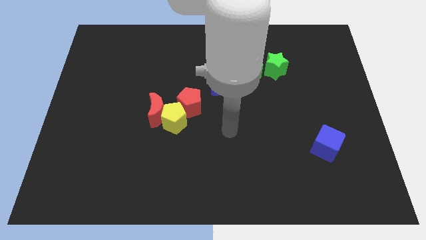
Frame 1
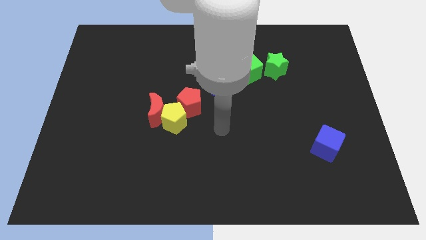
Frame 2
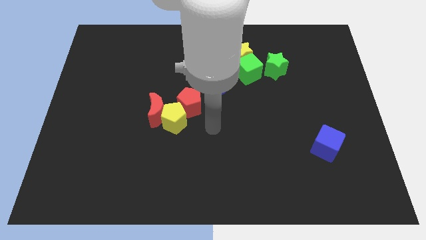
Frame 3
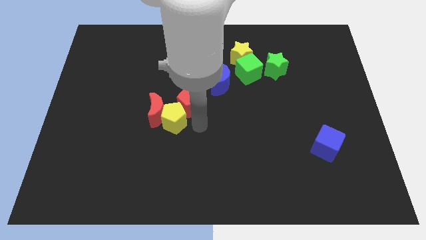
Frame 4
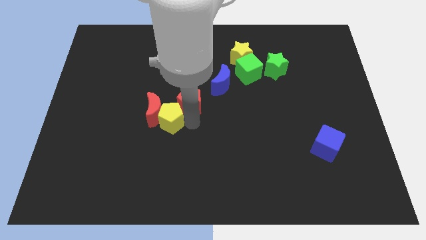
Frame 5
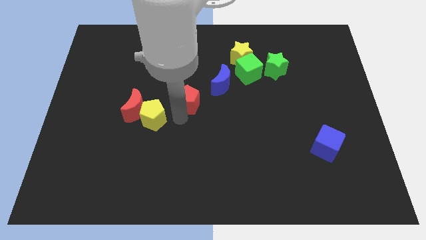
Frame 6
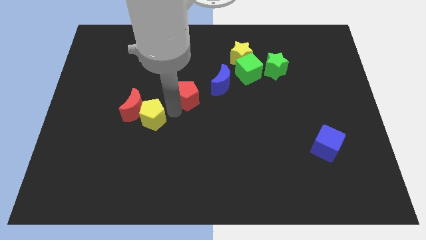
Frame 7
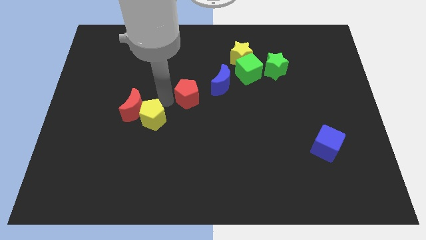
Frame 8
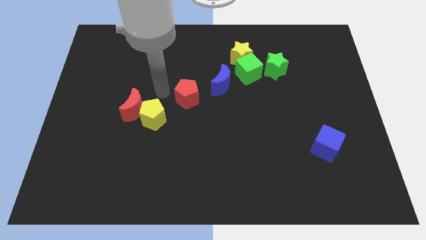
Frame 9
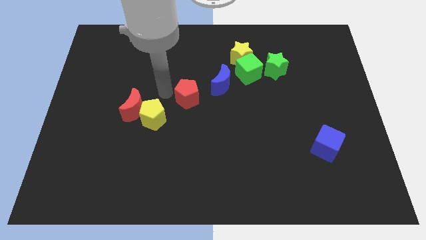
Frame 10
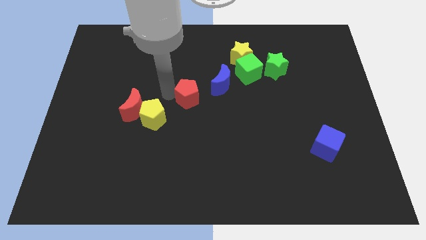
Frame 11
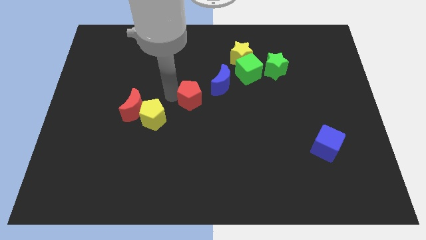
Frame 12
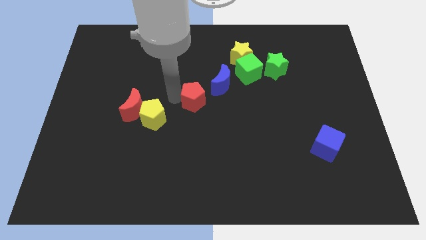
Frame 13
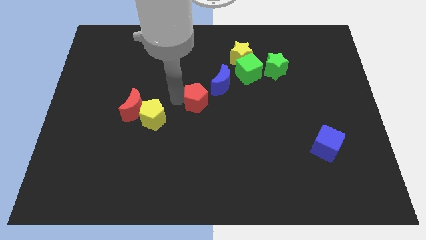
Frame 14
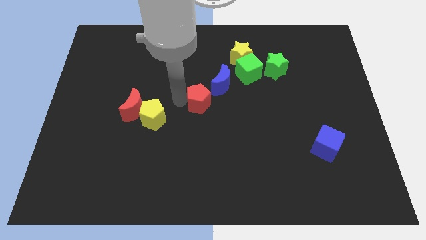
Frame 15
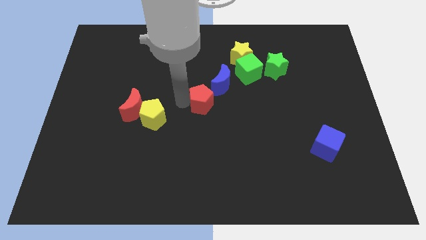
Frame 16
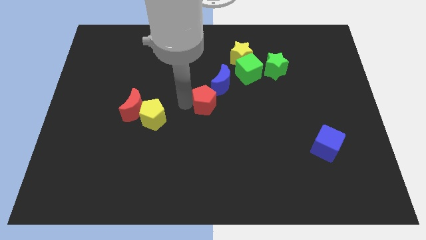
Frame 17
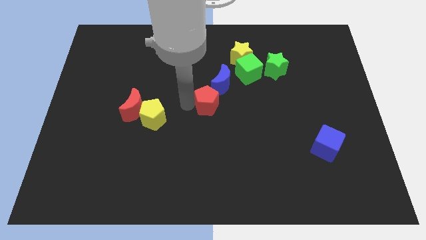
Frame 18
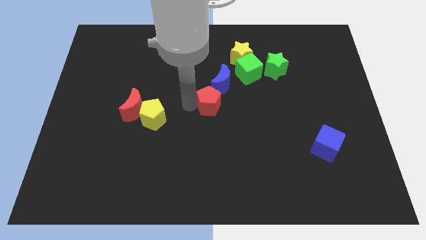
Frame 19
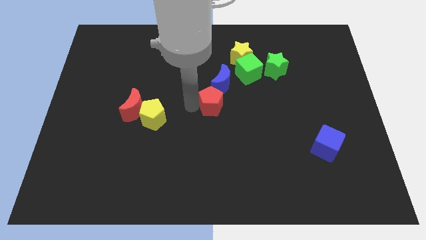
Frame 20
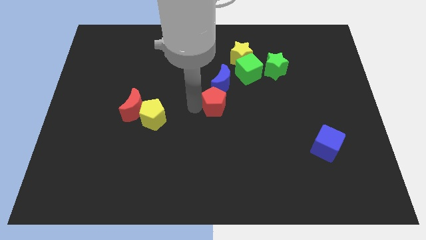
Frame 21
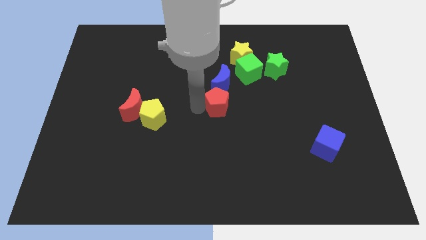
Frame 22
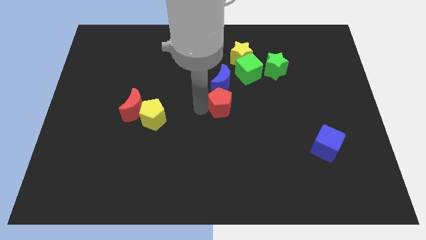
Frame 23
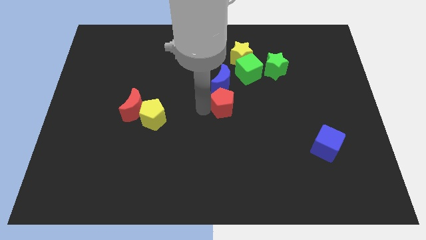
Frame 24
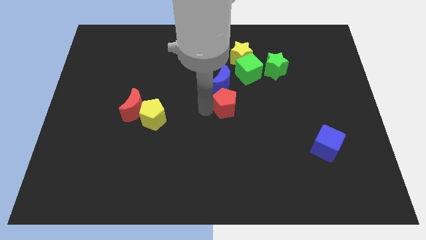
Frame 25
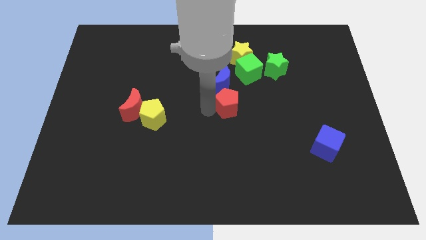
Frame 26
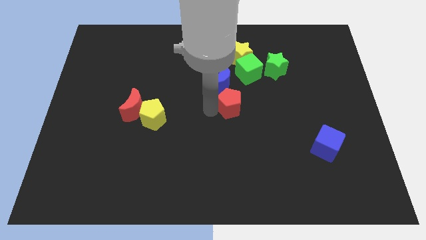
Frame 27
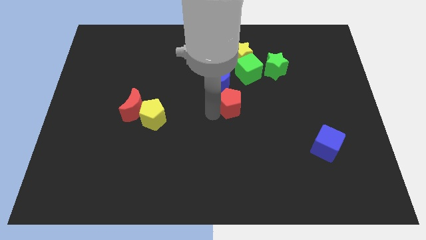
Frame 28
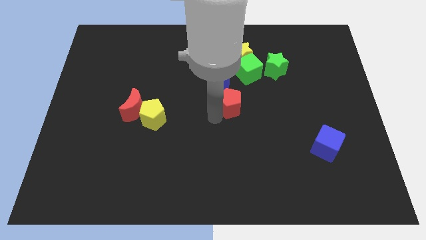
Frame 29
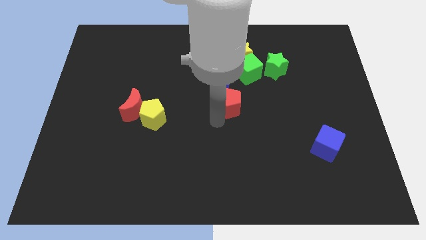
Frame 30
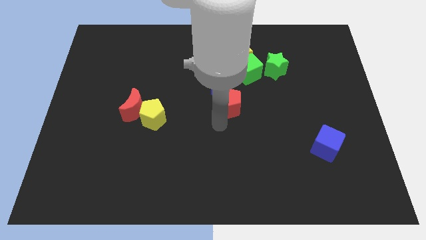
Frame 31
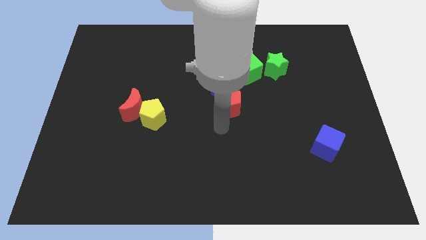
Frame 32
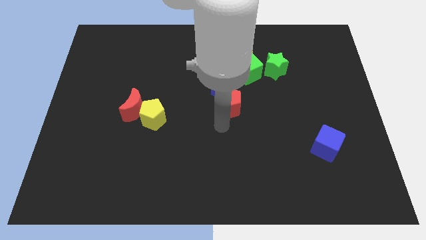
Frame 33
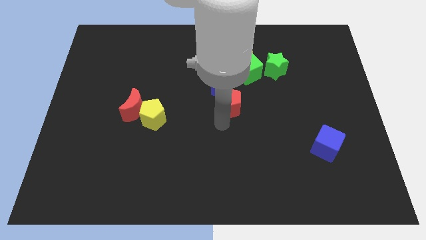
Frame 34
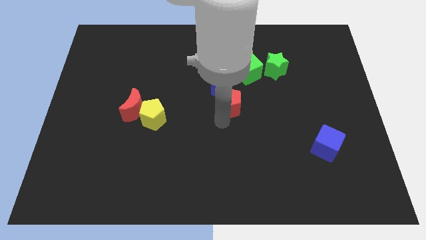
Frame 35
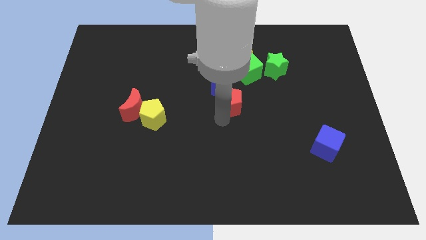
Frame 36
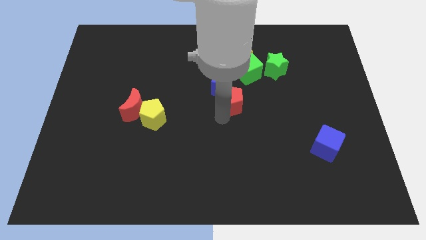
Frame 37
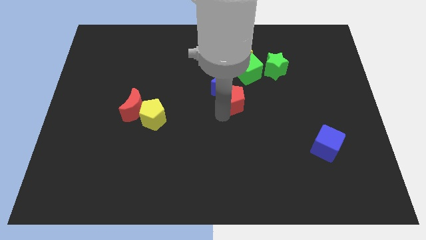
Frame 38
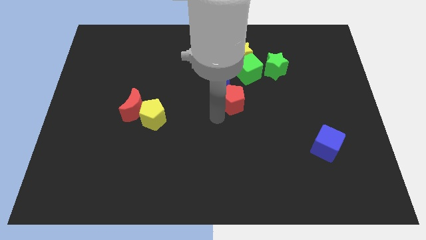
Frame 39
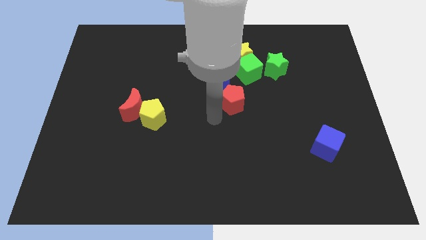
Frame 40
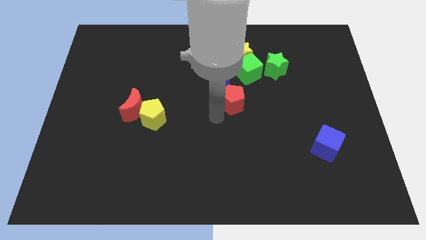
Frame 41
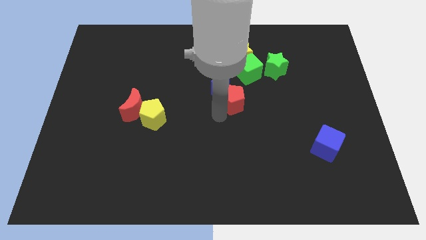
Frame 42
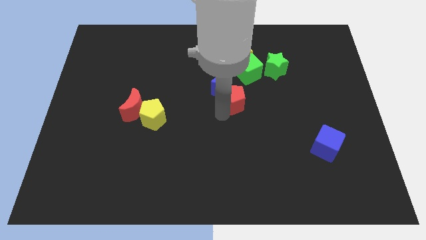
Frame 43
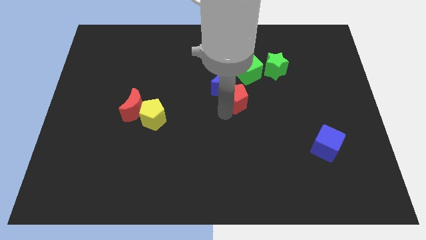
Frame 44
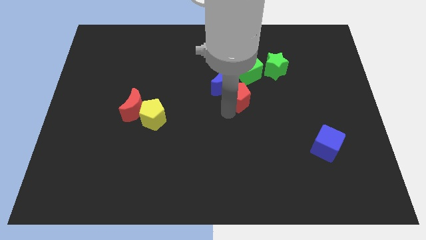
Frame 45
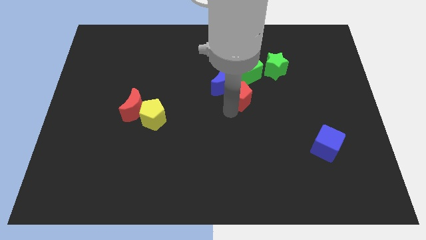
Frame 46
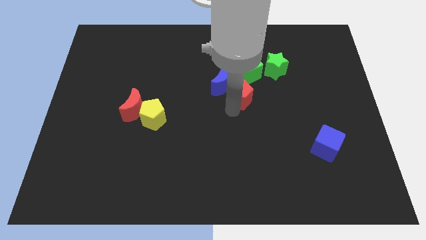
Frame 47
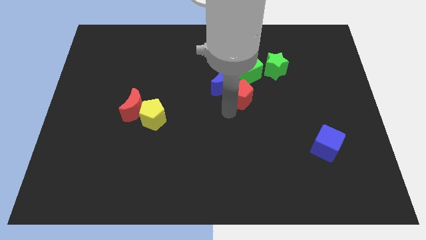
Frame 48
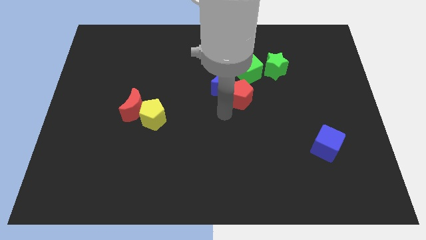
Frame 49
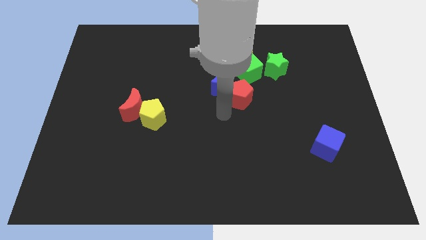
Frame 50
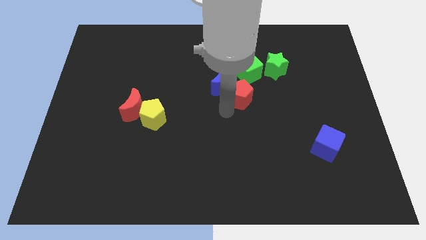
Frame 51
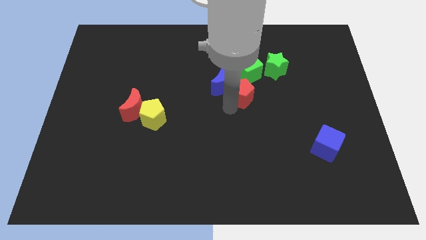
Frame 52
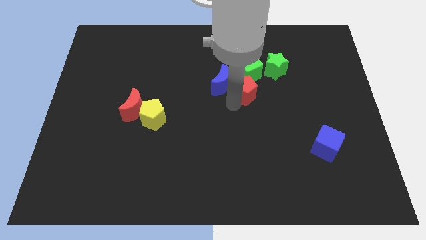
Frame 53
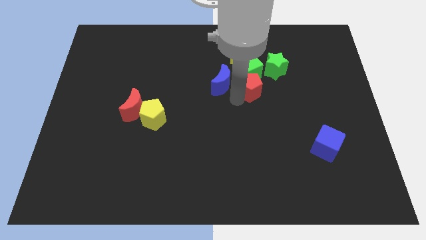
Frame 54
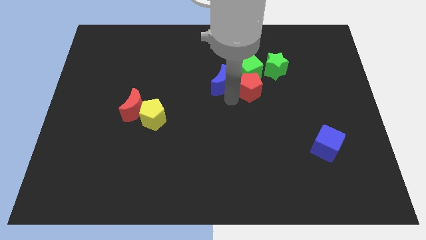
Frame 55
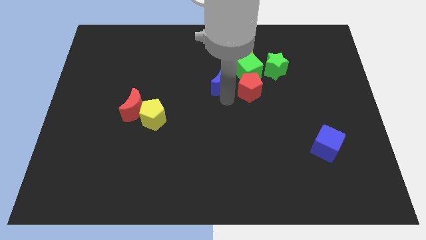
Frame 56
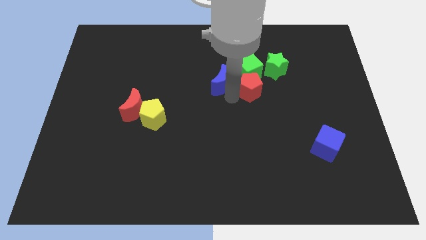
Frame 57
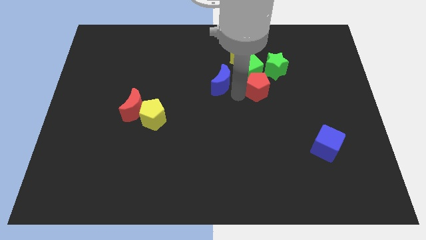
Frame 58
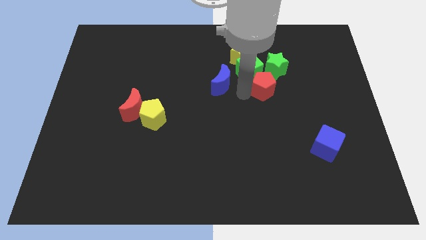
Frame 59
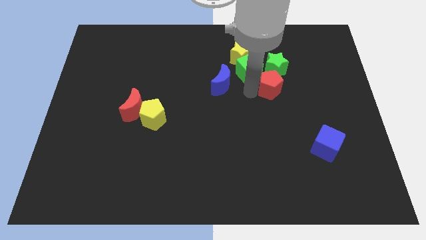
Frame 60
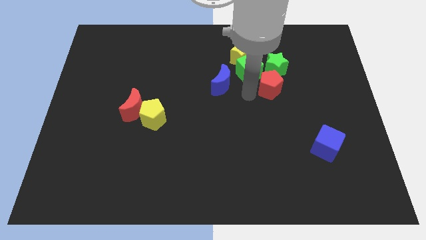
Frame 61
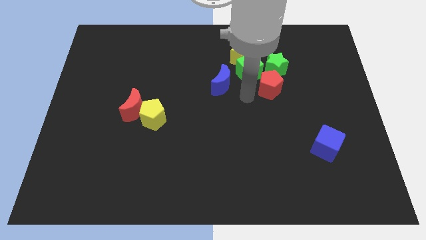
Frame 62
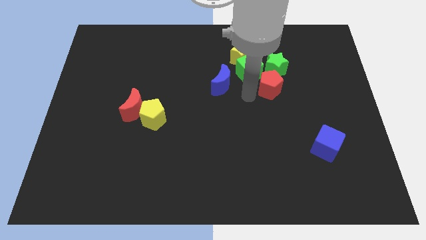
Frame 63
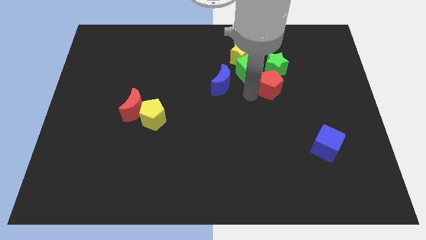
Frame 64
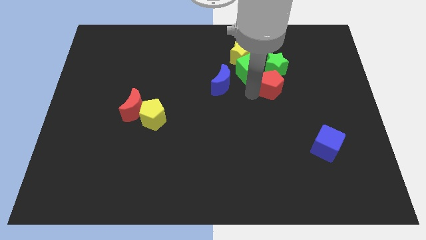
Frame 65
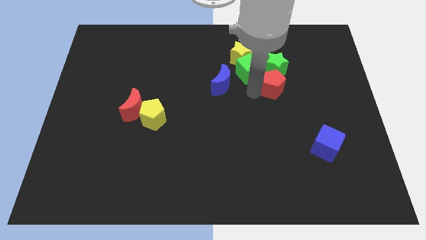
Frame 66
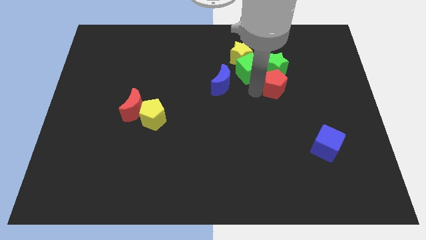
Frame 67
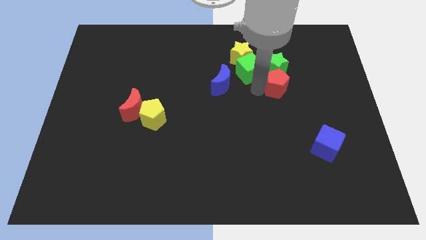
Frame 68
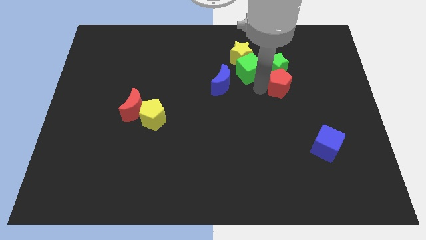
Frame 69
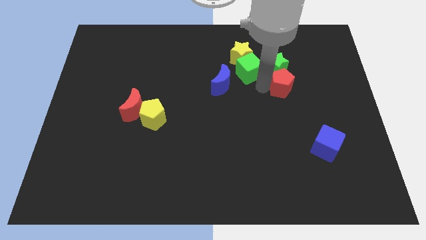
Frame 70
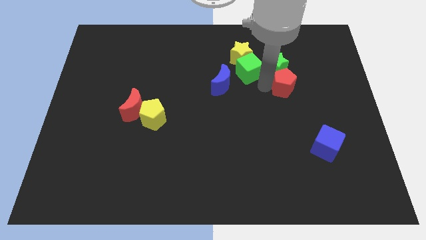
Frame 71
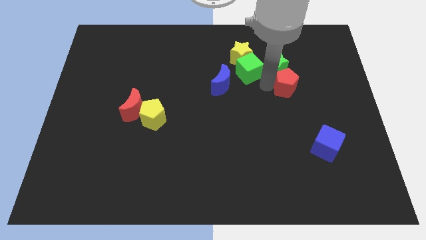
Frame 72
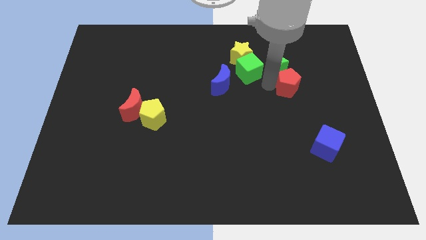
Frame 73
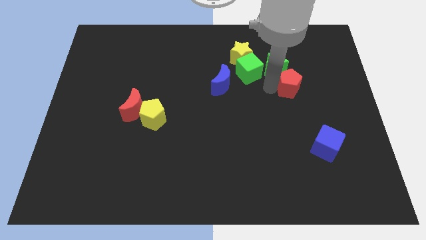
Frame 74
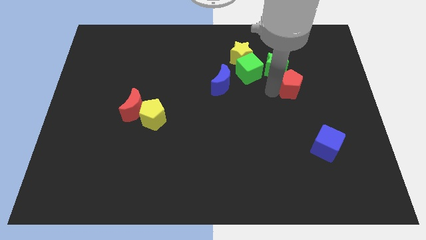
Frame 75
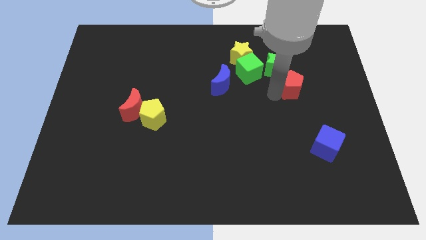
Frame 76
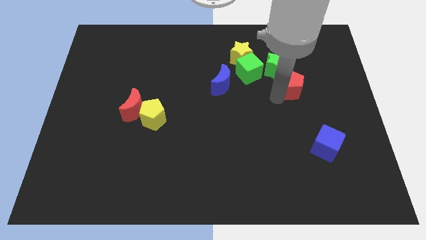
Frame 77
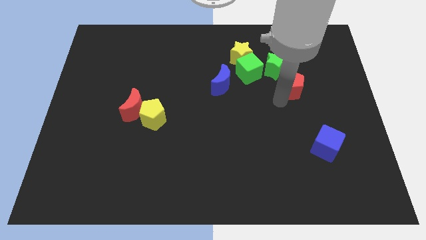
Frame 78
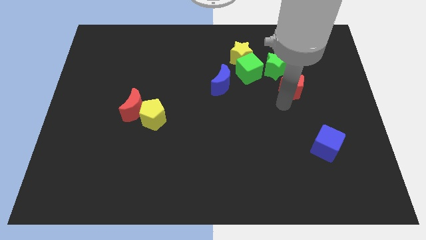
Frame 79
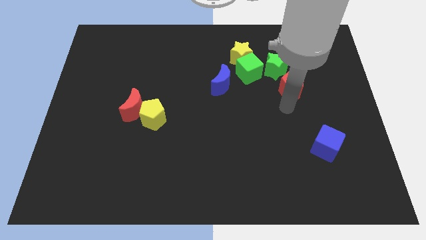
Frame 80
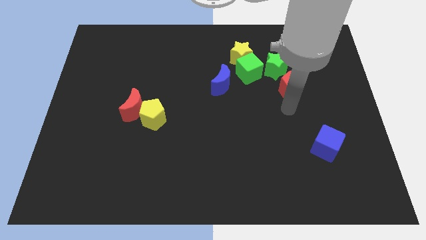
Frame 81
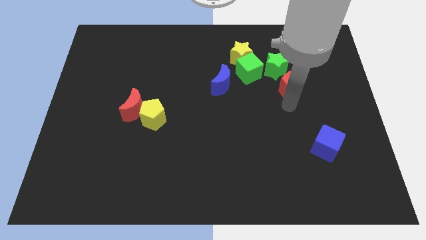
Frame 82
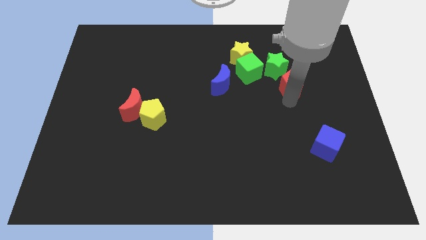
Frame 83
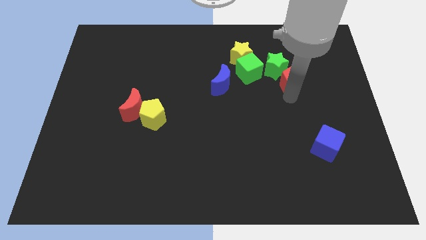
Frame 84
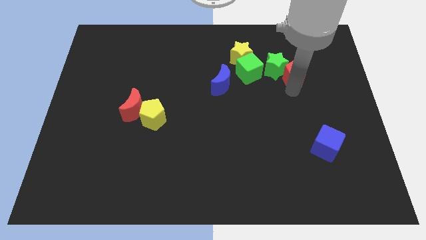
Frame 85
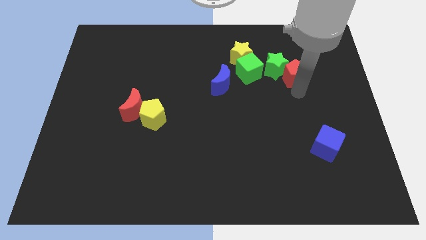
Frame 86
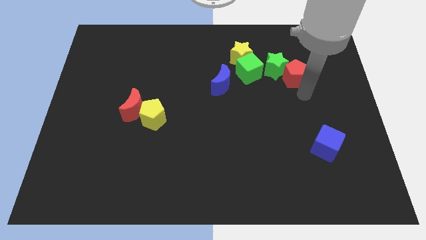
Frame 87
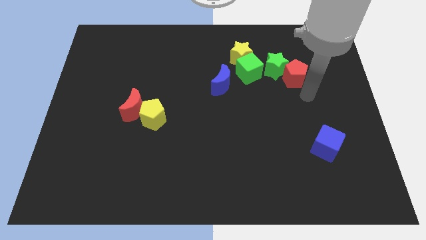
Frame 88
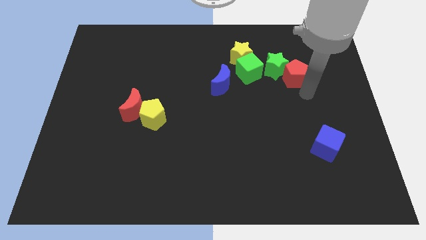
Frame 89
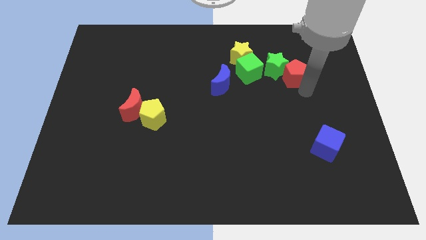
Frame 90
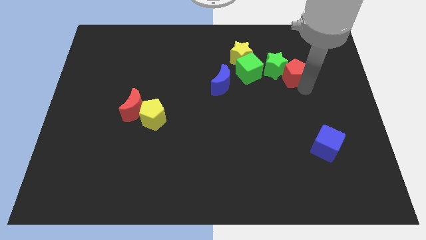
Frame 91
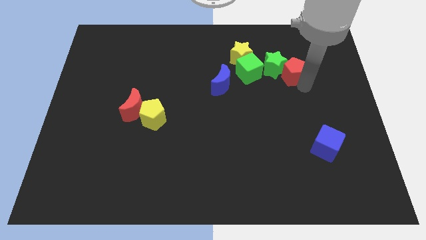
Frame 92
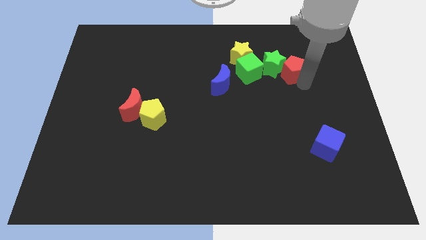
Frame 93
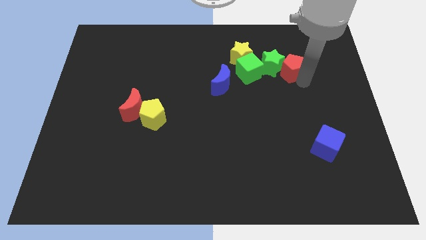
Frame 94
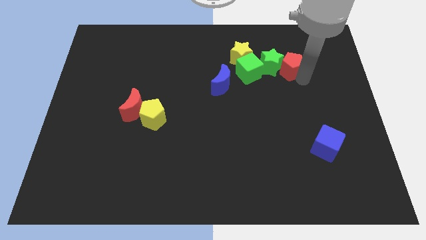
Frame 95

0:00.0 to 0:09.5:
slide the red pentagon to the right of the yellow star
